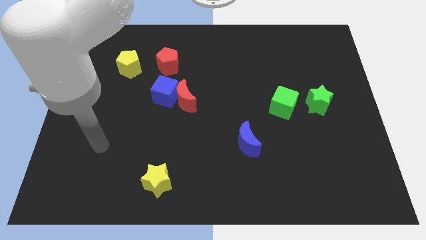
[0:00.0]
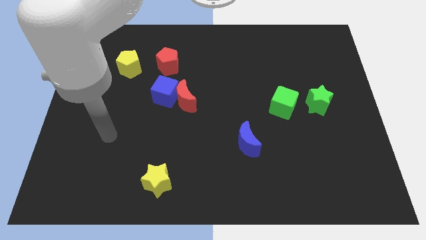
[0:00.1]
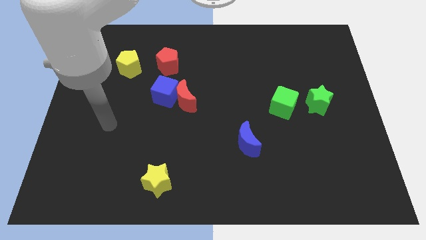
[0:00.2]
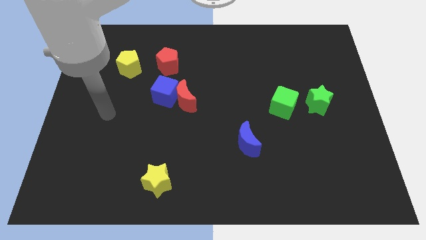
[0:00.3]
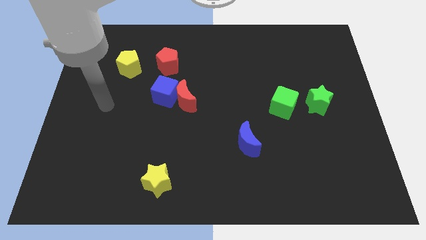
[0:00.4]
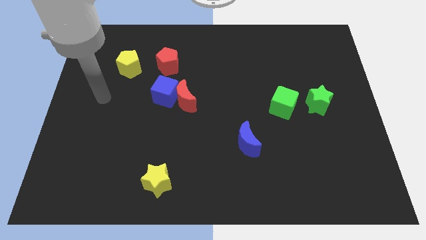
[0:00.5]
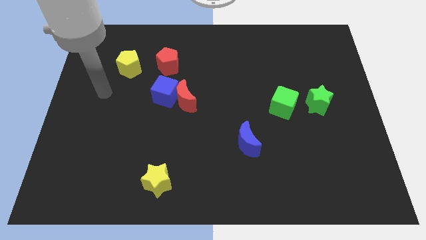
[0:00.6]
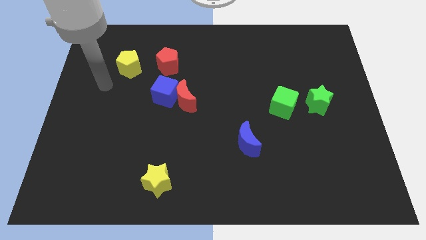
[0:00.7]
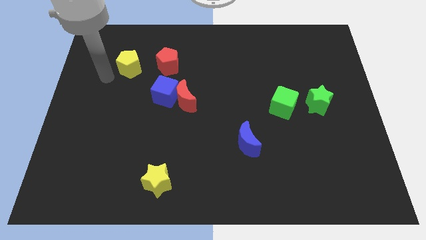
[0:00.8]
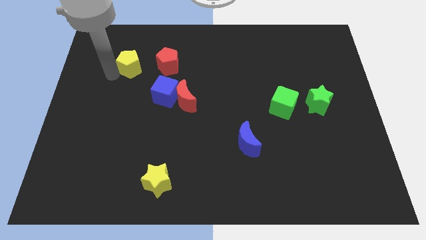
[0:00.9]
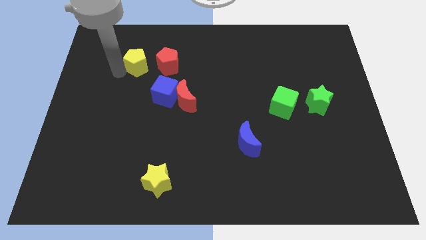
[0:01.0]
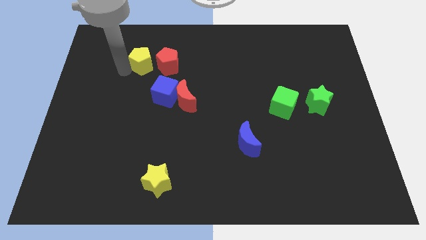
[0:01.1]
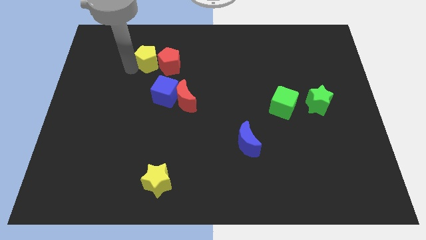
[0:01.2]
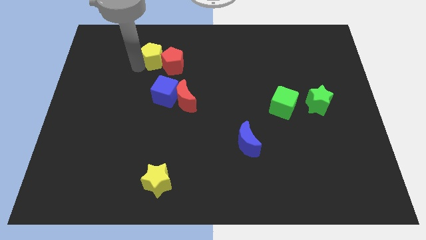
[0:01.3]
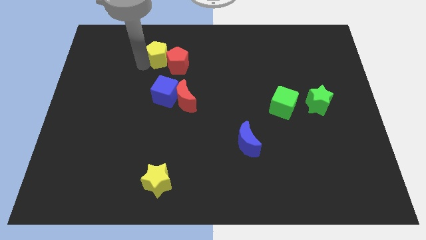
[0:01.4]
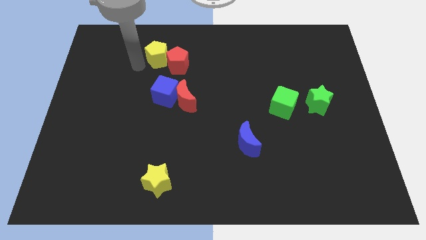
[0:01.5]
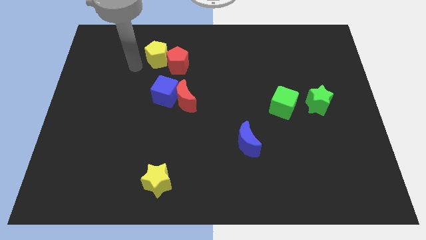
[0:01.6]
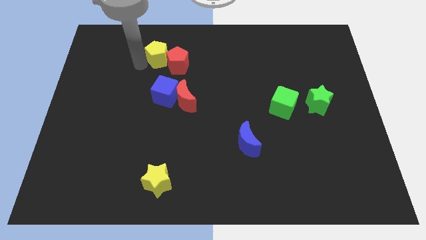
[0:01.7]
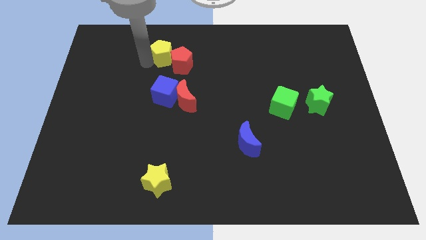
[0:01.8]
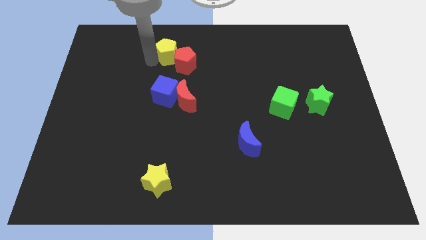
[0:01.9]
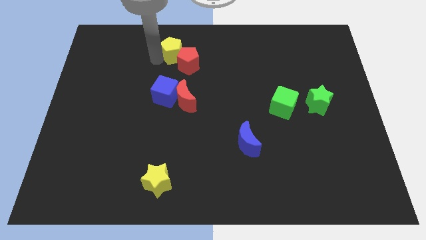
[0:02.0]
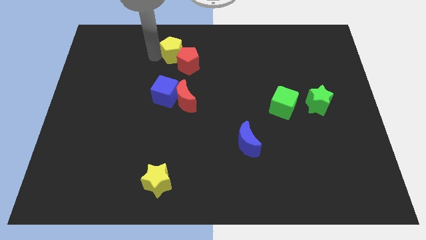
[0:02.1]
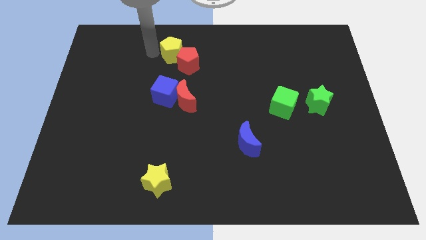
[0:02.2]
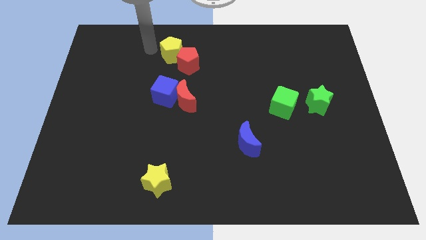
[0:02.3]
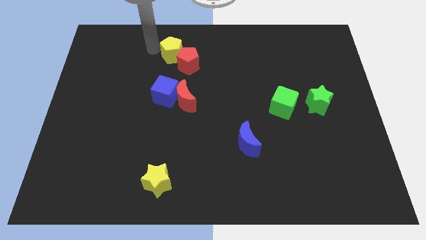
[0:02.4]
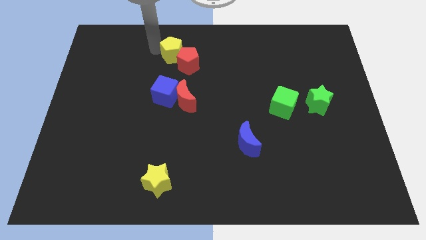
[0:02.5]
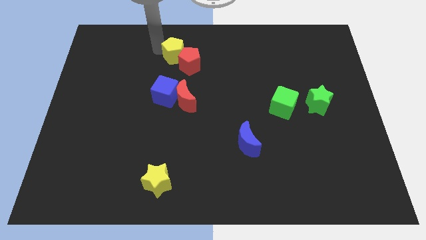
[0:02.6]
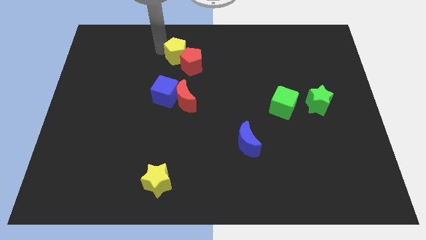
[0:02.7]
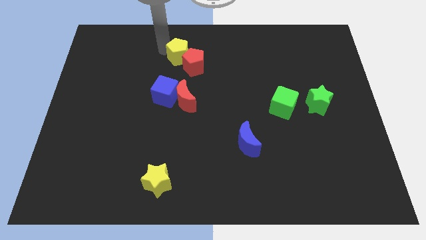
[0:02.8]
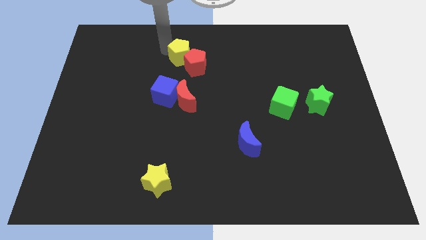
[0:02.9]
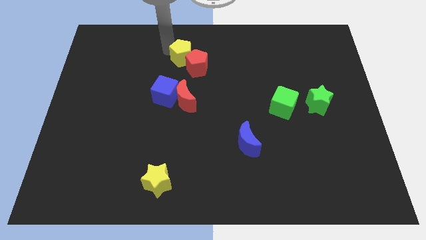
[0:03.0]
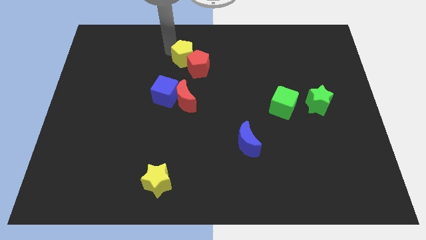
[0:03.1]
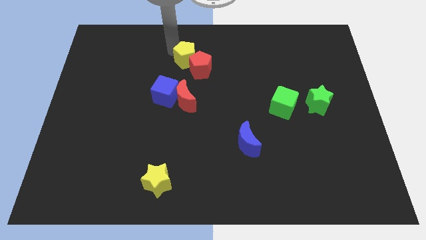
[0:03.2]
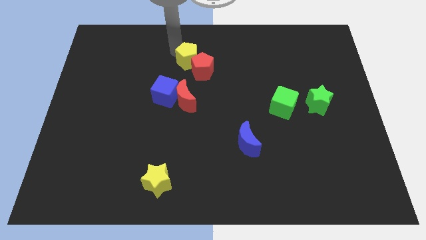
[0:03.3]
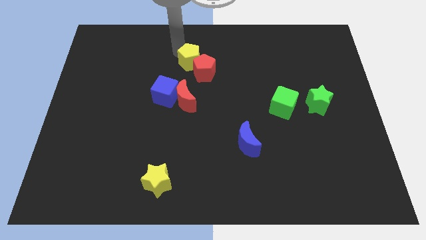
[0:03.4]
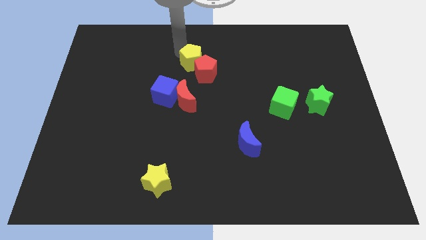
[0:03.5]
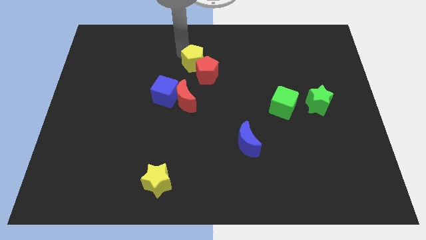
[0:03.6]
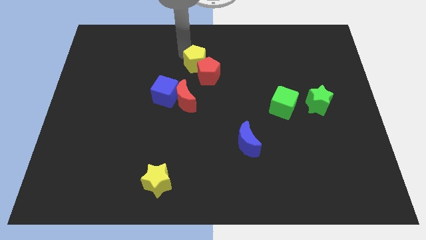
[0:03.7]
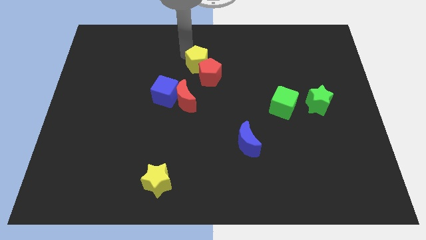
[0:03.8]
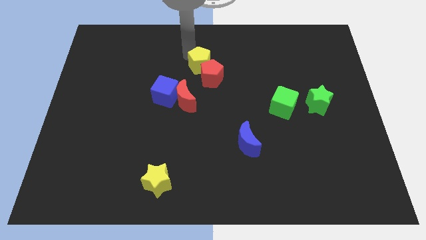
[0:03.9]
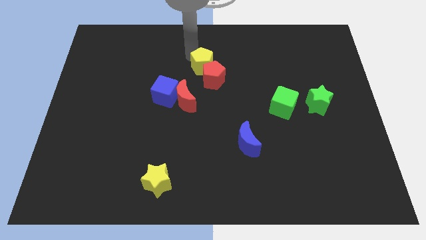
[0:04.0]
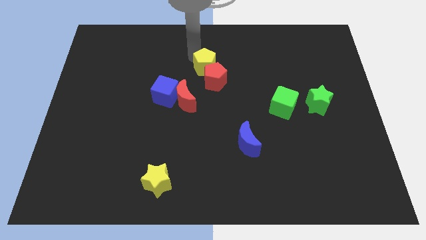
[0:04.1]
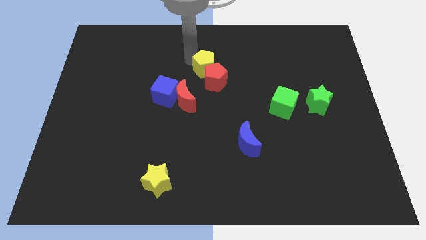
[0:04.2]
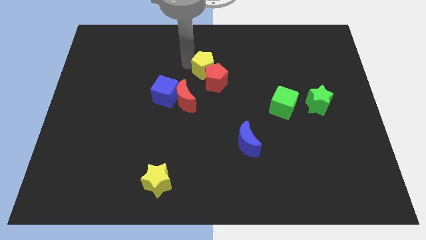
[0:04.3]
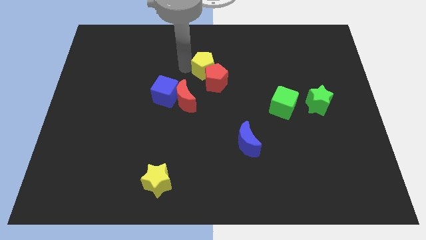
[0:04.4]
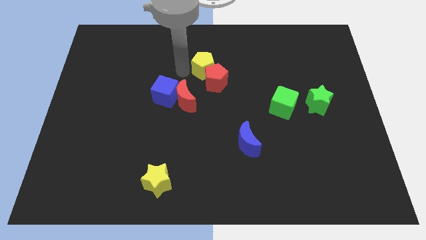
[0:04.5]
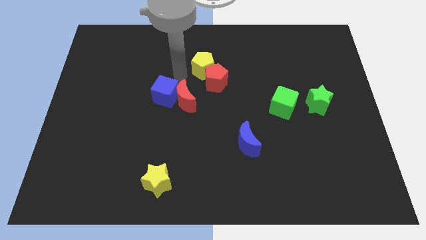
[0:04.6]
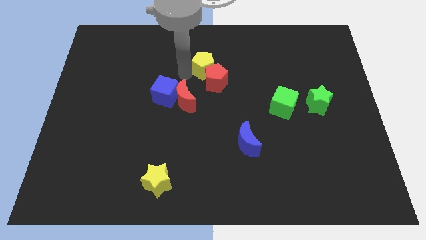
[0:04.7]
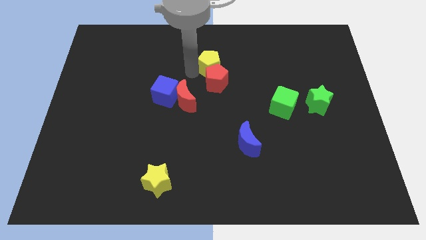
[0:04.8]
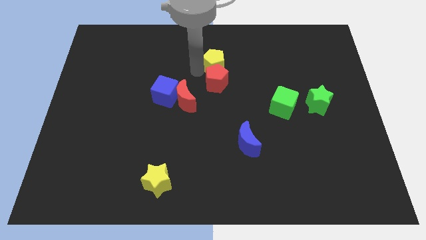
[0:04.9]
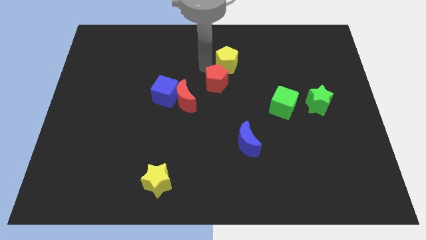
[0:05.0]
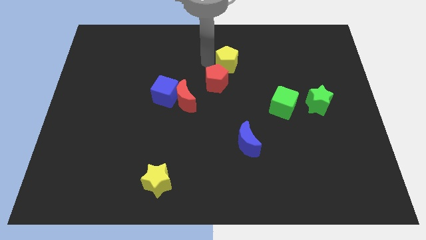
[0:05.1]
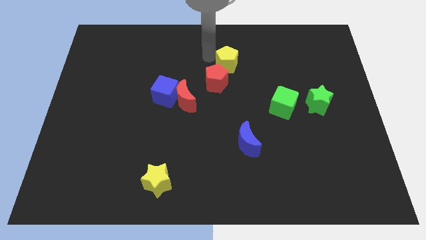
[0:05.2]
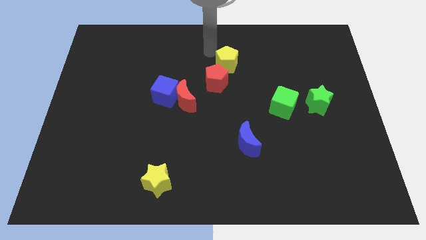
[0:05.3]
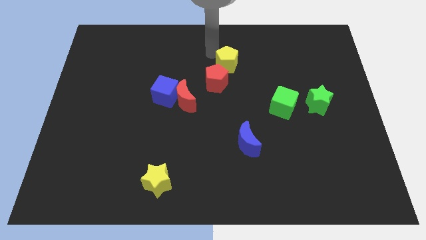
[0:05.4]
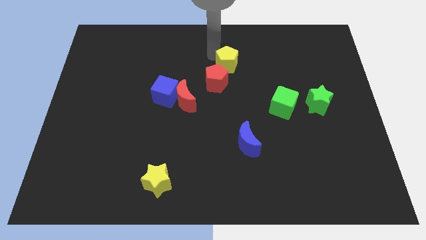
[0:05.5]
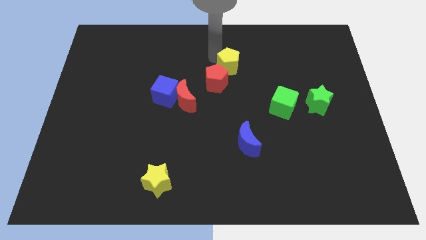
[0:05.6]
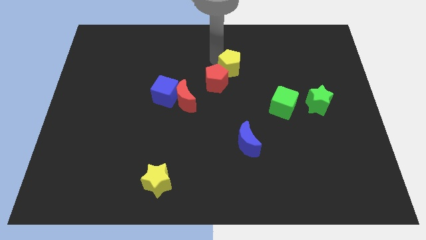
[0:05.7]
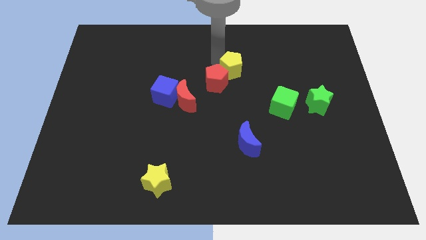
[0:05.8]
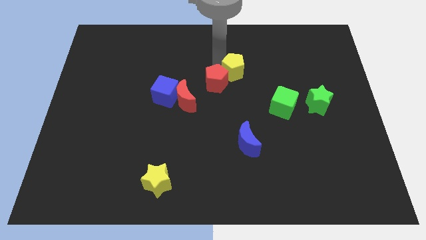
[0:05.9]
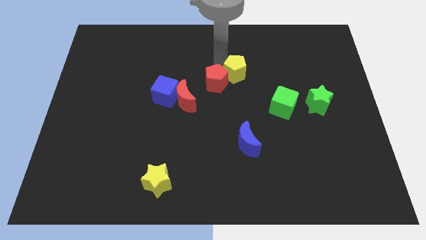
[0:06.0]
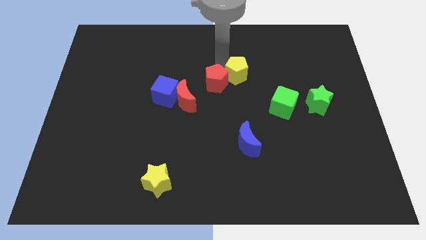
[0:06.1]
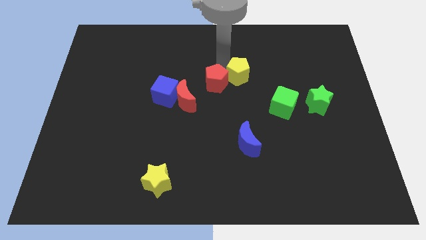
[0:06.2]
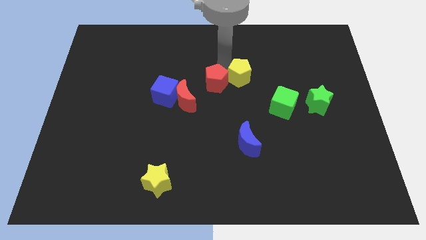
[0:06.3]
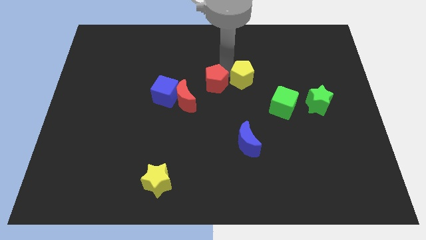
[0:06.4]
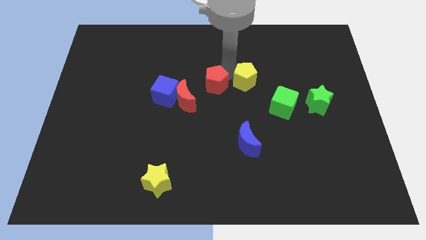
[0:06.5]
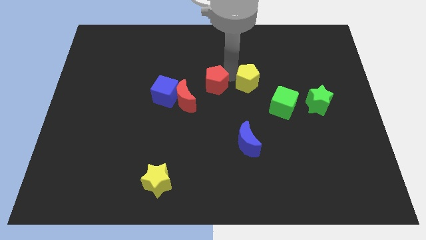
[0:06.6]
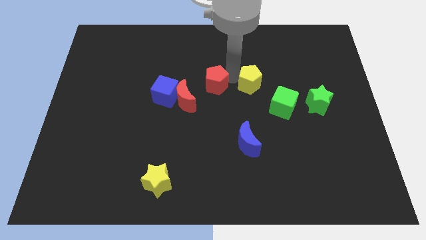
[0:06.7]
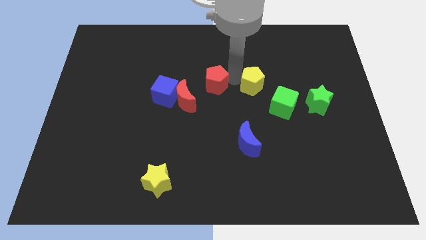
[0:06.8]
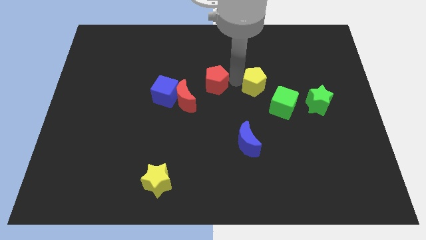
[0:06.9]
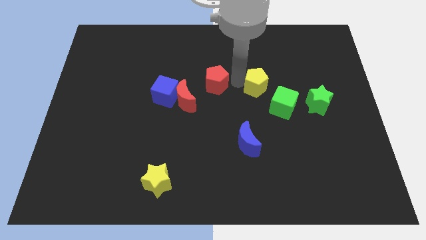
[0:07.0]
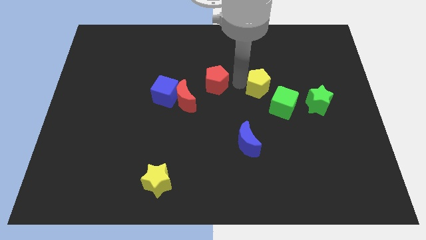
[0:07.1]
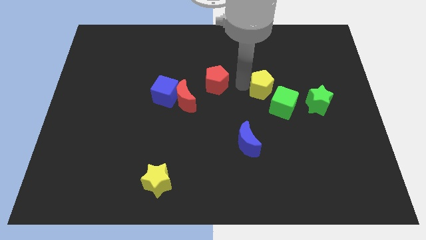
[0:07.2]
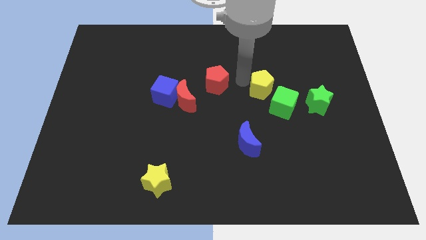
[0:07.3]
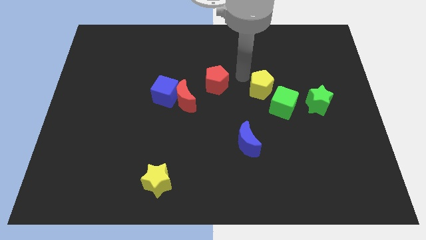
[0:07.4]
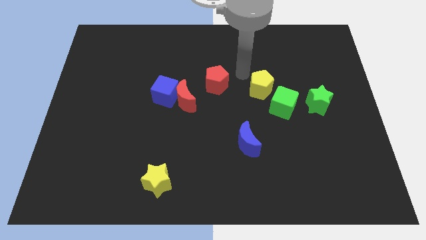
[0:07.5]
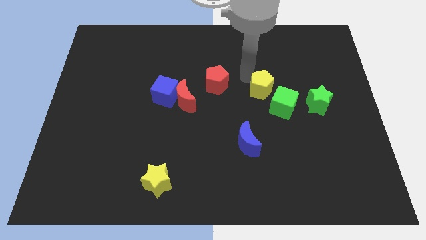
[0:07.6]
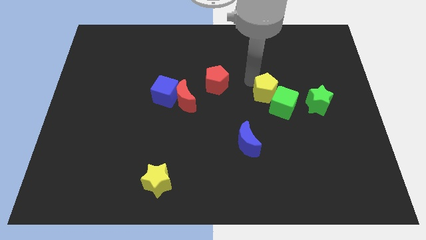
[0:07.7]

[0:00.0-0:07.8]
push the yellow pentagon to the green cube
